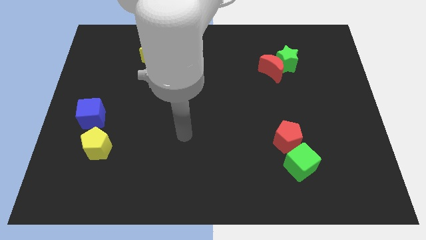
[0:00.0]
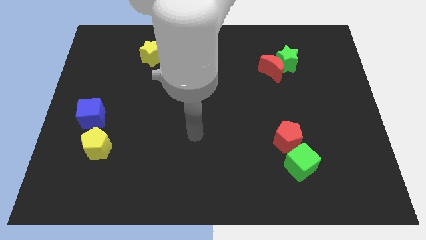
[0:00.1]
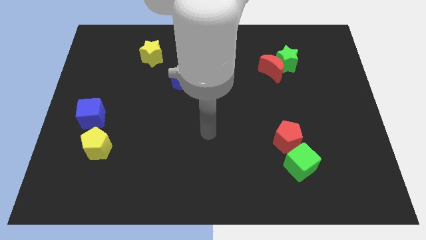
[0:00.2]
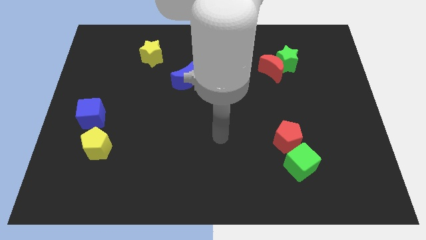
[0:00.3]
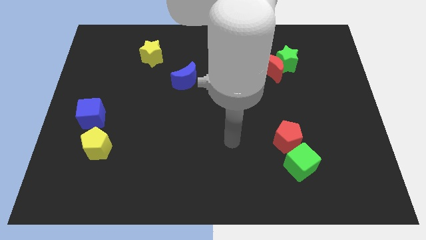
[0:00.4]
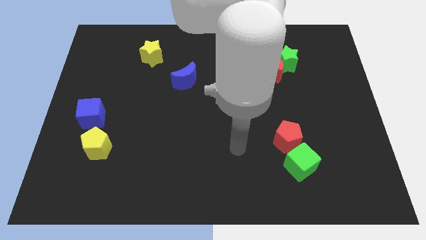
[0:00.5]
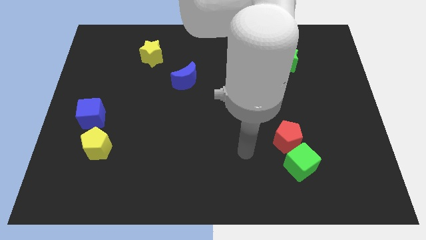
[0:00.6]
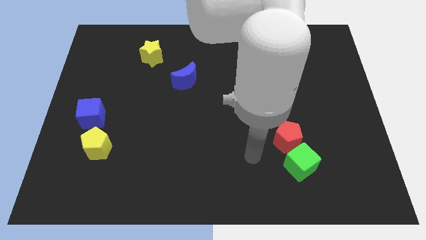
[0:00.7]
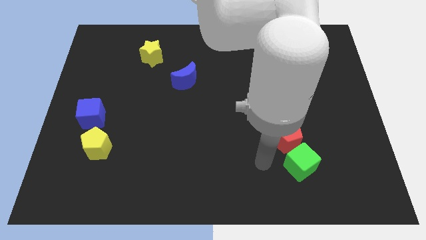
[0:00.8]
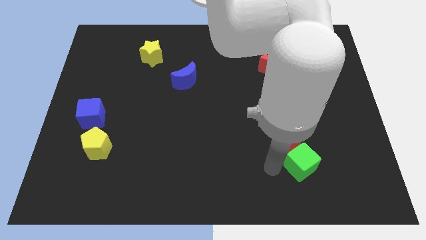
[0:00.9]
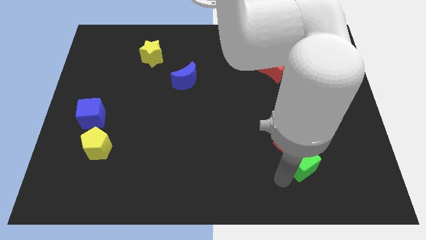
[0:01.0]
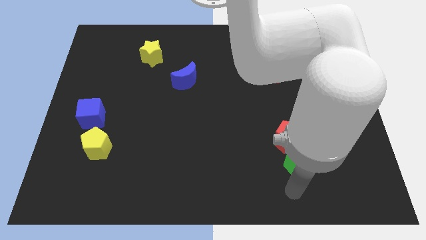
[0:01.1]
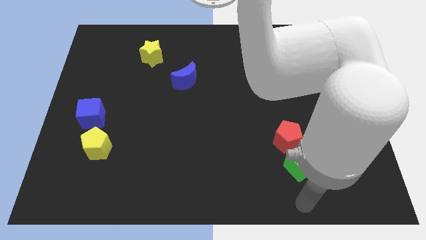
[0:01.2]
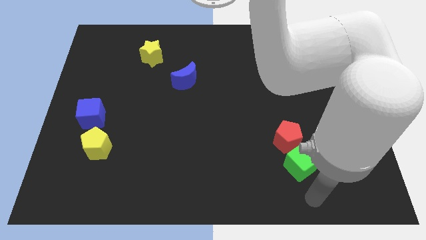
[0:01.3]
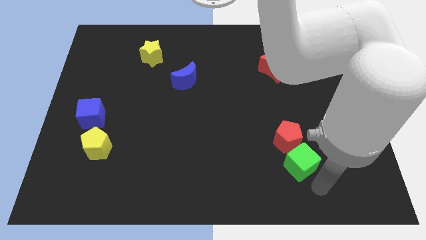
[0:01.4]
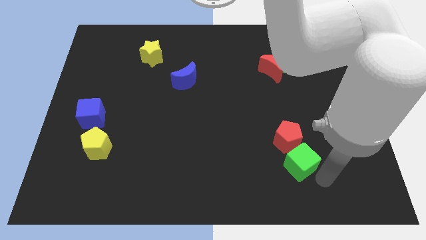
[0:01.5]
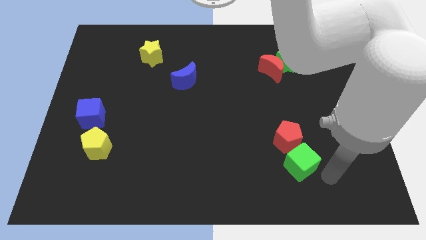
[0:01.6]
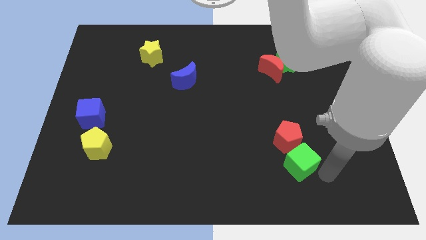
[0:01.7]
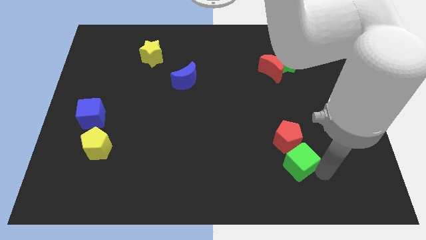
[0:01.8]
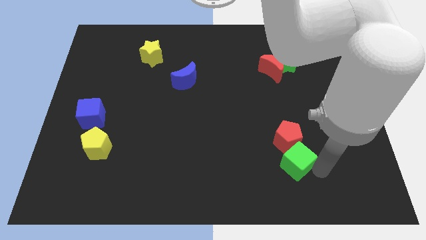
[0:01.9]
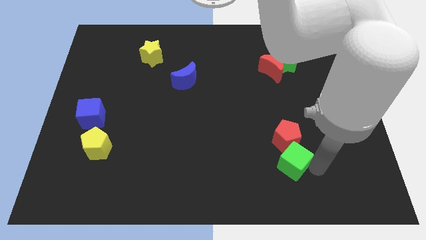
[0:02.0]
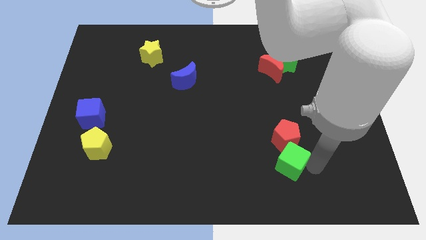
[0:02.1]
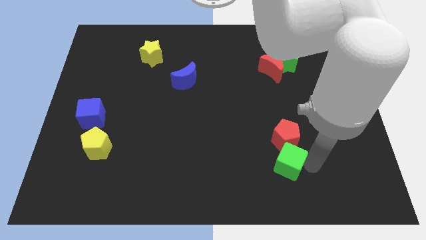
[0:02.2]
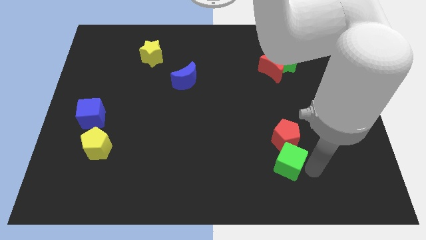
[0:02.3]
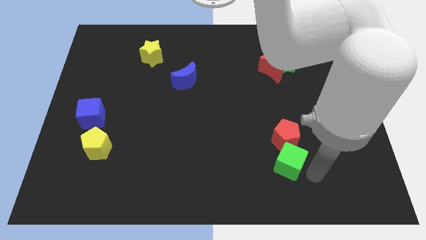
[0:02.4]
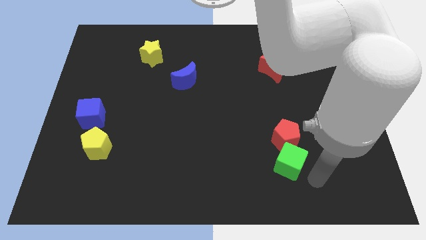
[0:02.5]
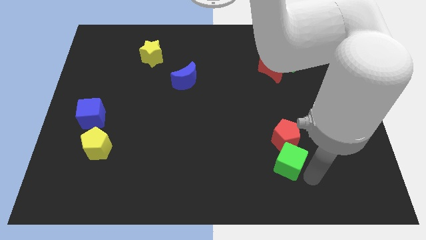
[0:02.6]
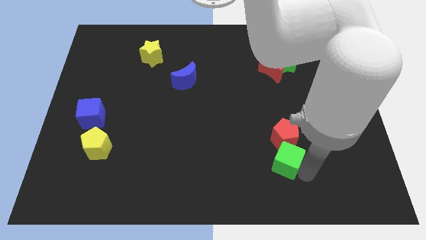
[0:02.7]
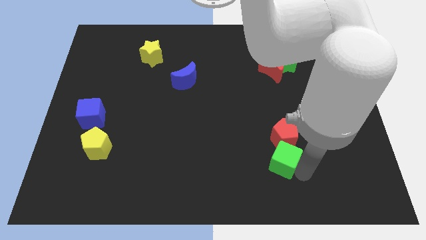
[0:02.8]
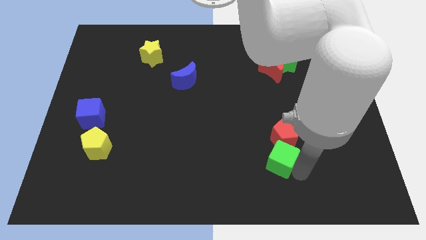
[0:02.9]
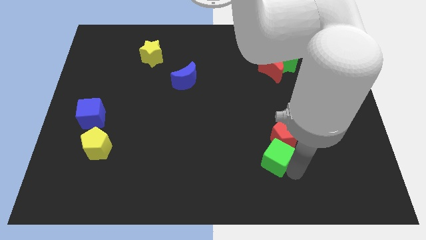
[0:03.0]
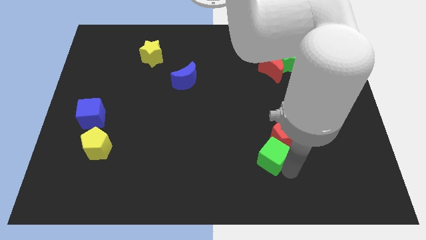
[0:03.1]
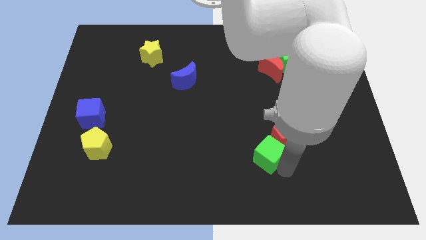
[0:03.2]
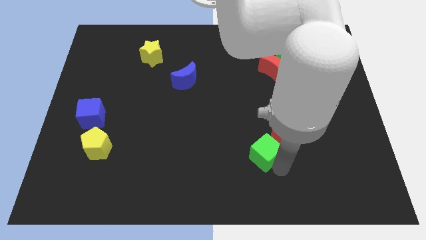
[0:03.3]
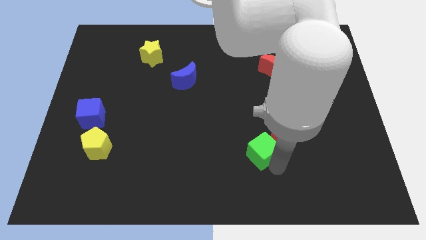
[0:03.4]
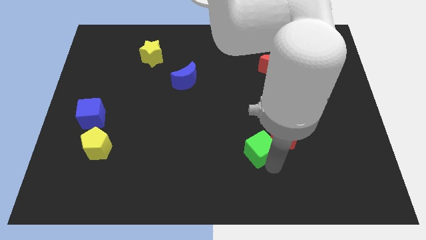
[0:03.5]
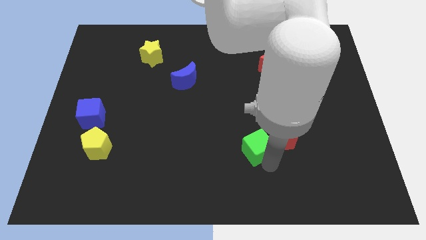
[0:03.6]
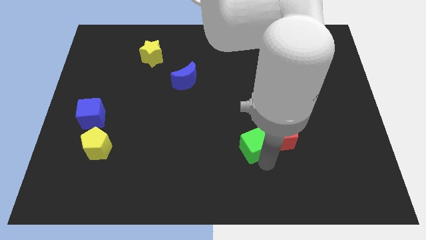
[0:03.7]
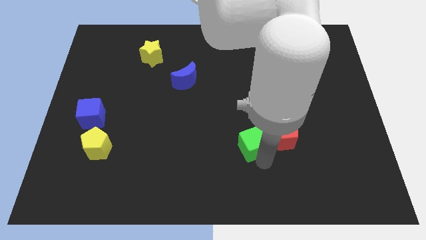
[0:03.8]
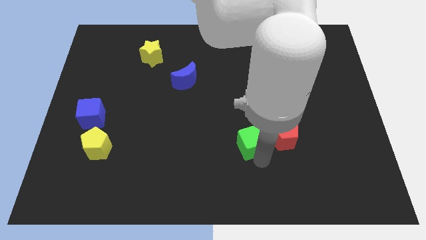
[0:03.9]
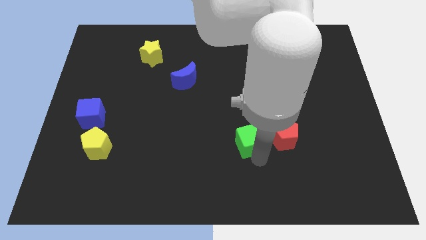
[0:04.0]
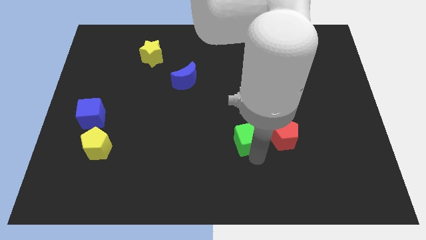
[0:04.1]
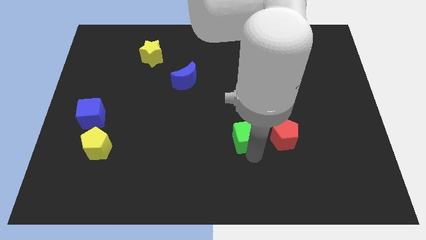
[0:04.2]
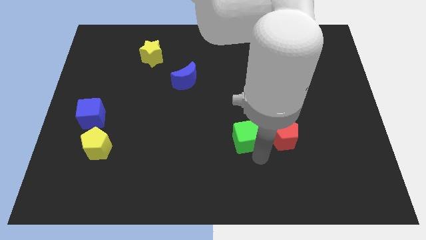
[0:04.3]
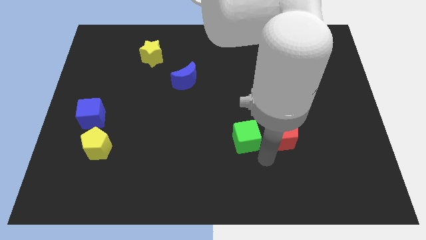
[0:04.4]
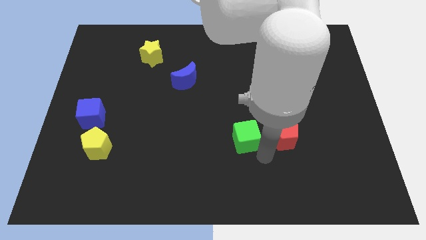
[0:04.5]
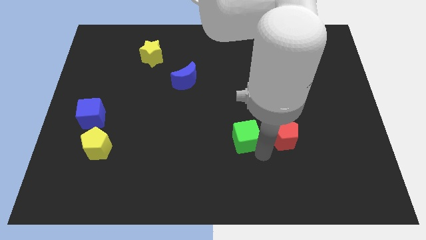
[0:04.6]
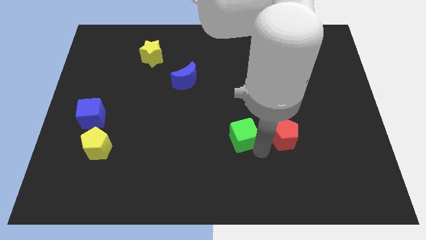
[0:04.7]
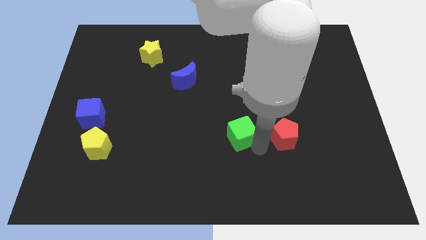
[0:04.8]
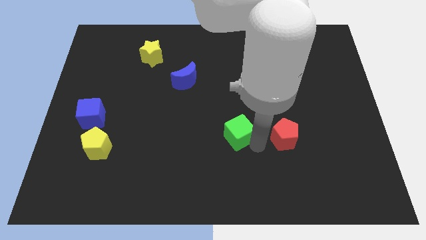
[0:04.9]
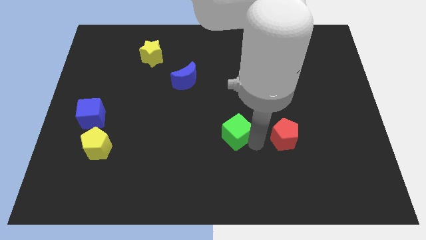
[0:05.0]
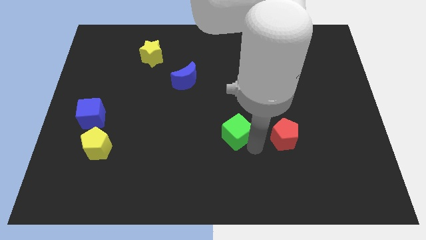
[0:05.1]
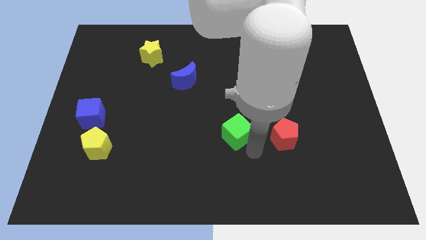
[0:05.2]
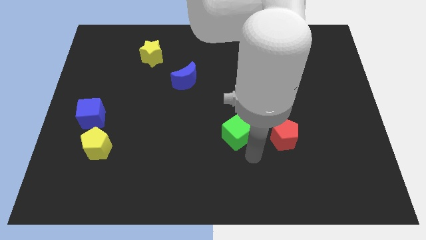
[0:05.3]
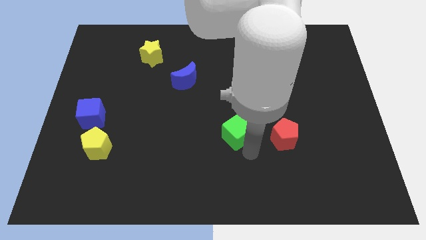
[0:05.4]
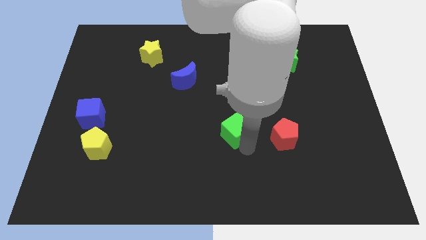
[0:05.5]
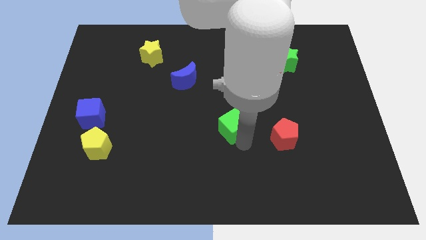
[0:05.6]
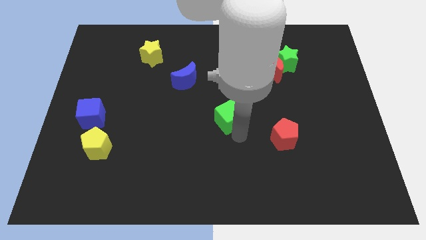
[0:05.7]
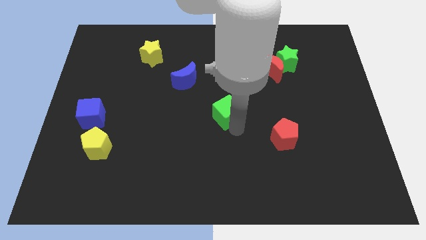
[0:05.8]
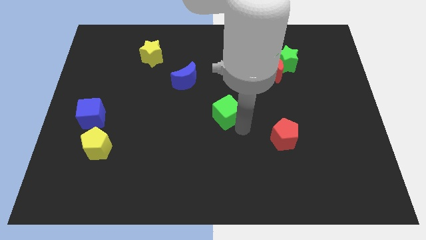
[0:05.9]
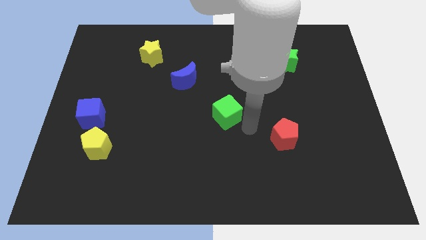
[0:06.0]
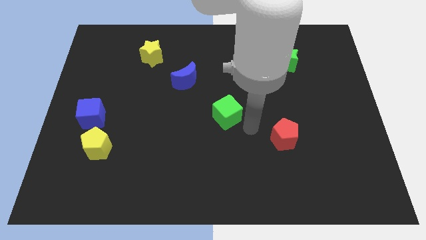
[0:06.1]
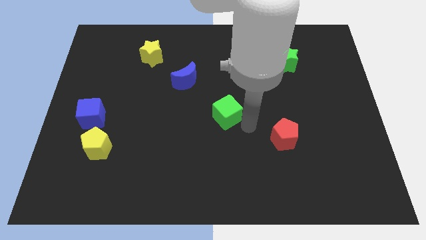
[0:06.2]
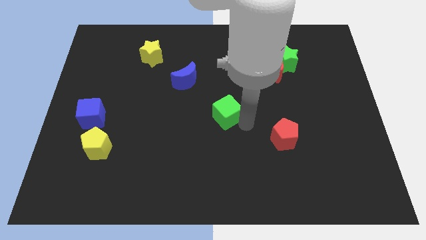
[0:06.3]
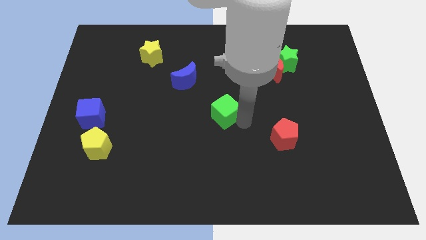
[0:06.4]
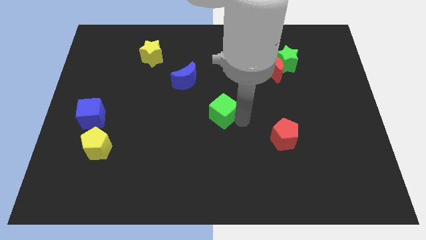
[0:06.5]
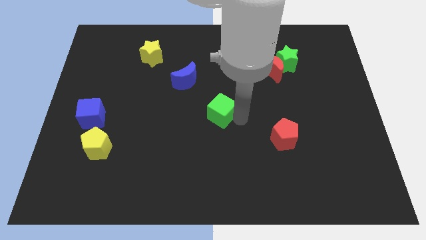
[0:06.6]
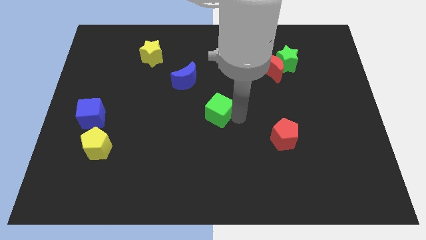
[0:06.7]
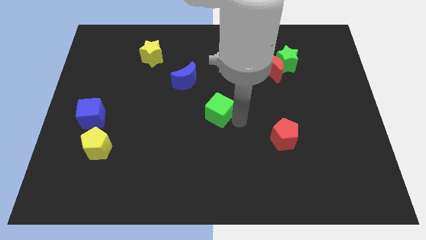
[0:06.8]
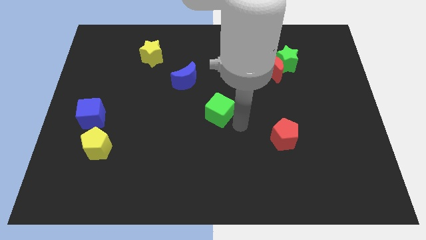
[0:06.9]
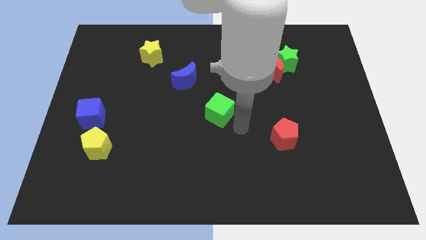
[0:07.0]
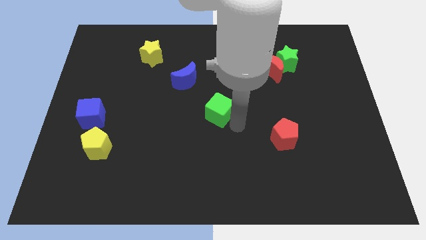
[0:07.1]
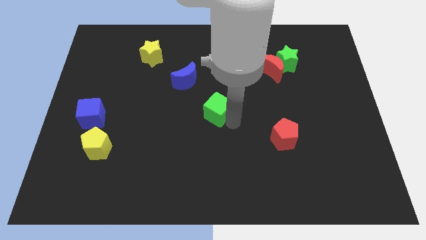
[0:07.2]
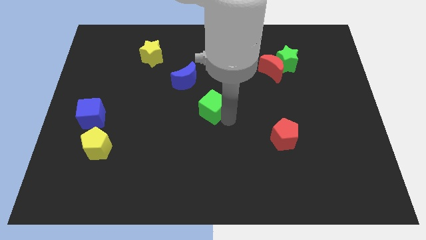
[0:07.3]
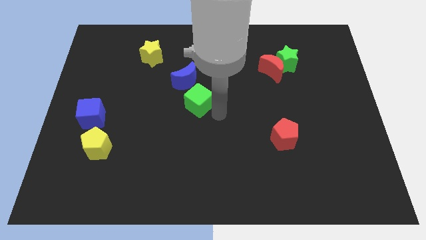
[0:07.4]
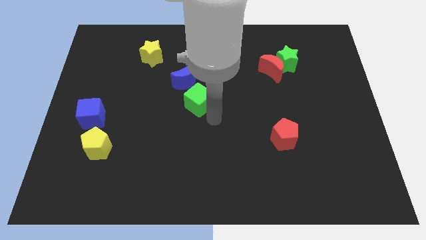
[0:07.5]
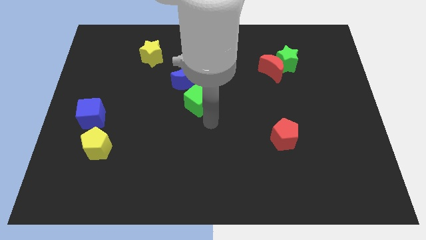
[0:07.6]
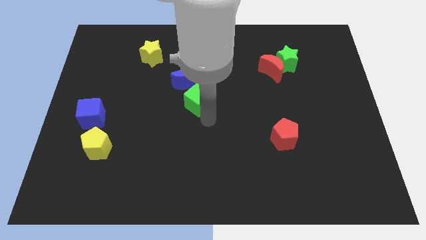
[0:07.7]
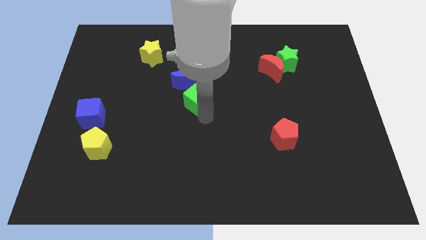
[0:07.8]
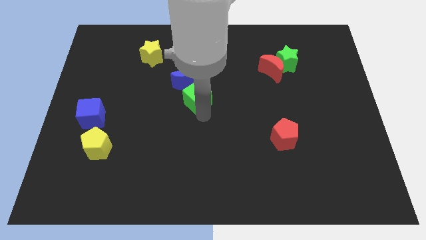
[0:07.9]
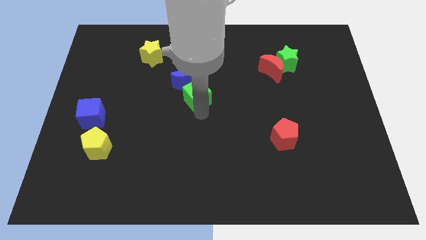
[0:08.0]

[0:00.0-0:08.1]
put the green cube close to the blue moon
